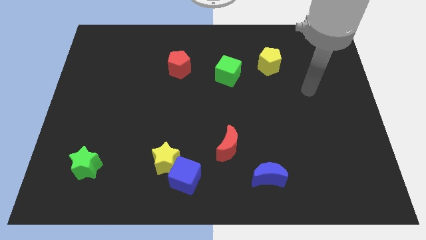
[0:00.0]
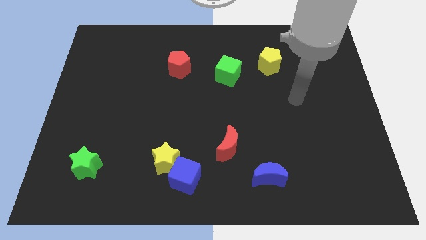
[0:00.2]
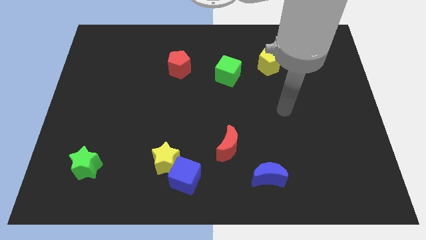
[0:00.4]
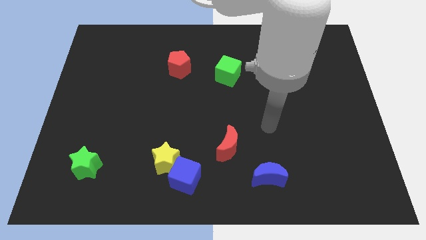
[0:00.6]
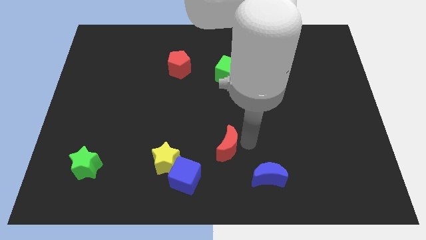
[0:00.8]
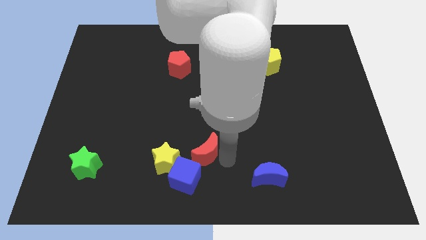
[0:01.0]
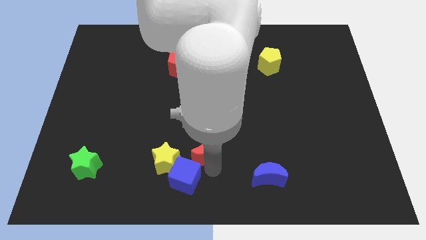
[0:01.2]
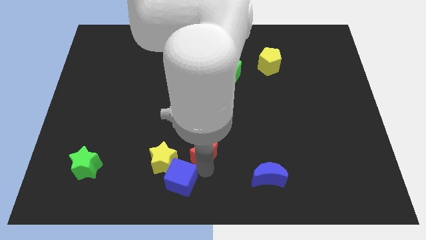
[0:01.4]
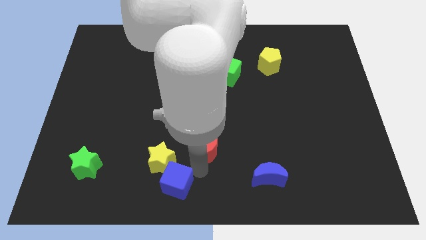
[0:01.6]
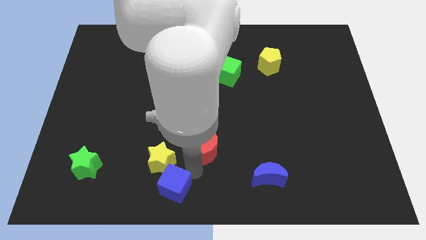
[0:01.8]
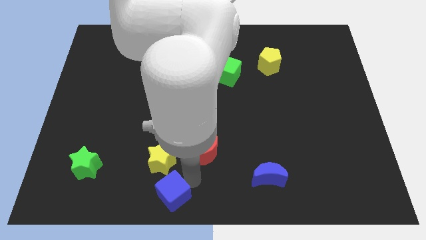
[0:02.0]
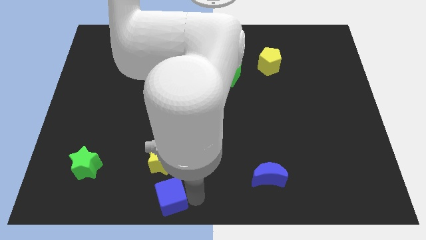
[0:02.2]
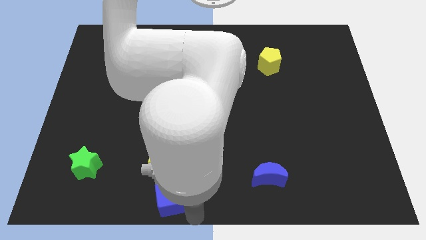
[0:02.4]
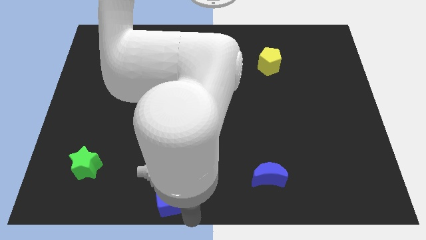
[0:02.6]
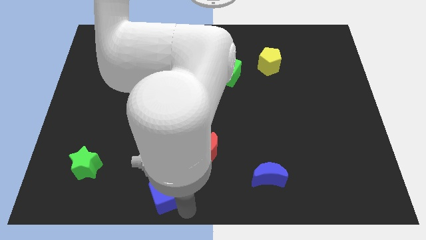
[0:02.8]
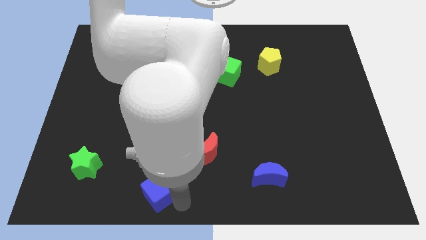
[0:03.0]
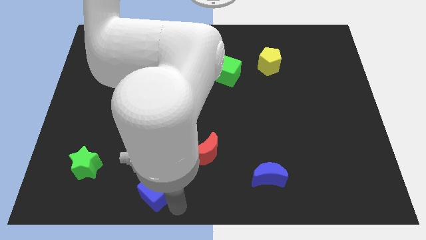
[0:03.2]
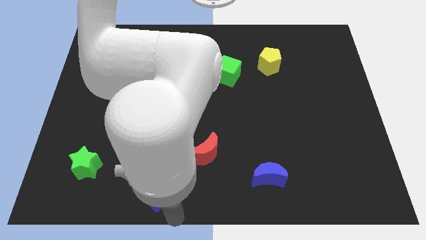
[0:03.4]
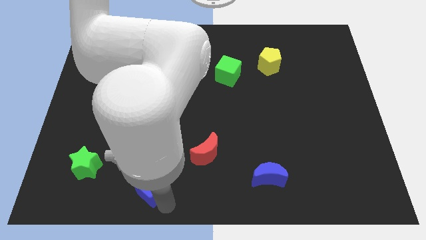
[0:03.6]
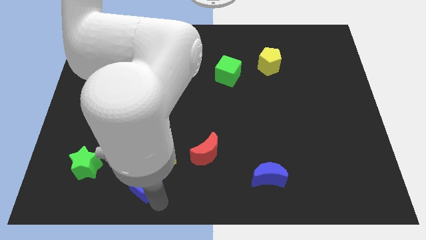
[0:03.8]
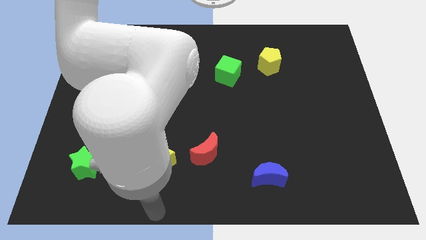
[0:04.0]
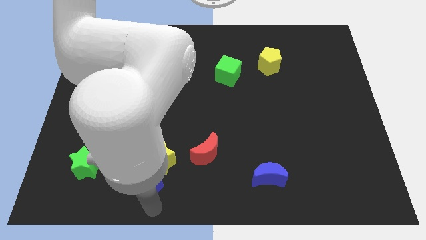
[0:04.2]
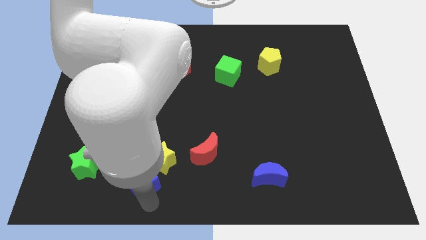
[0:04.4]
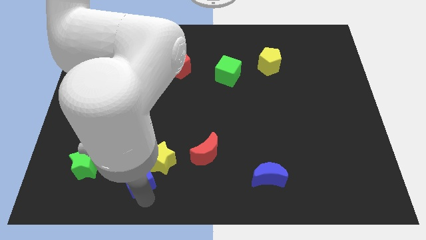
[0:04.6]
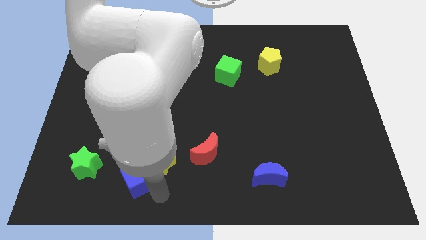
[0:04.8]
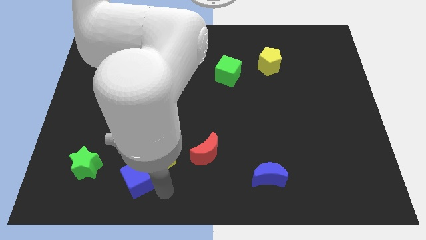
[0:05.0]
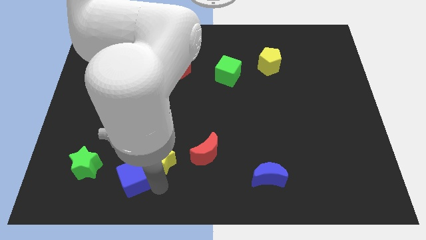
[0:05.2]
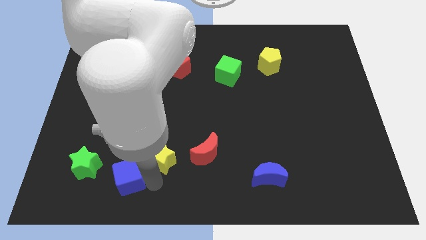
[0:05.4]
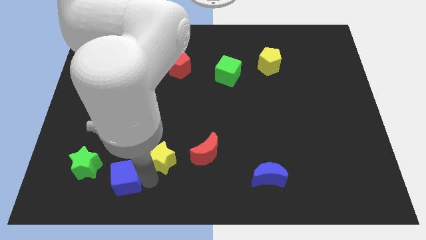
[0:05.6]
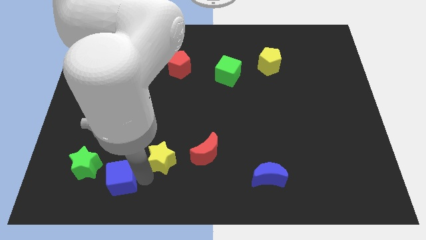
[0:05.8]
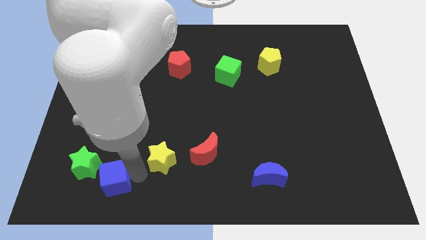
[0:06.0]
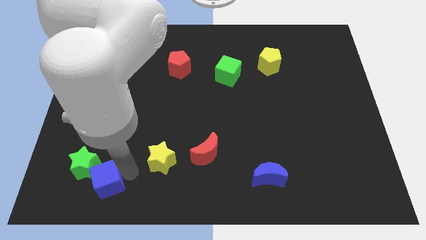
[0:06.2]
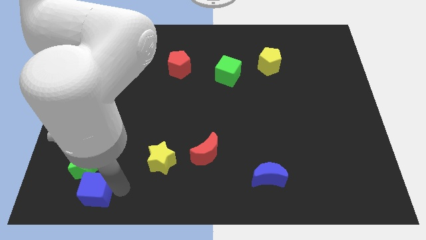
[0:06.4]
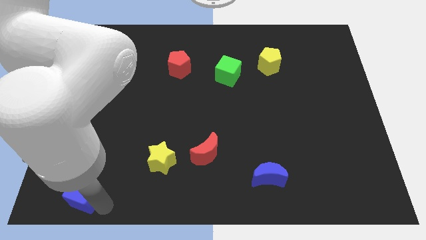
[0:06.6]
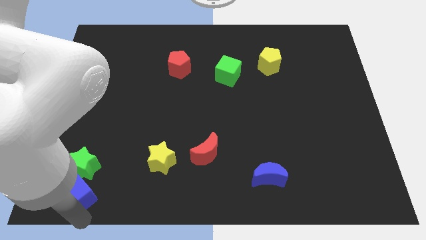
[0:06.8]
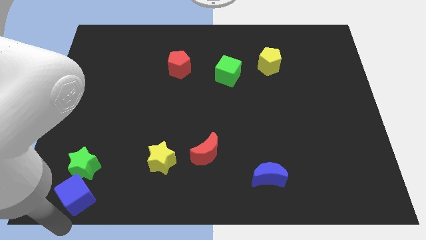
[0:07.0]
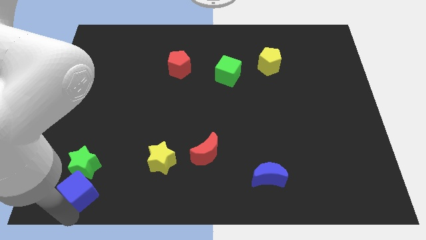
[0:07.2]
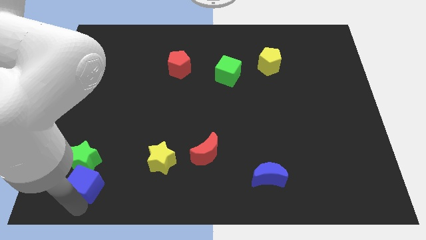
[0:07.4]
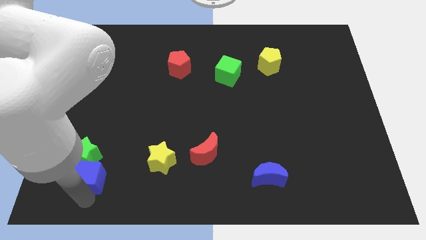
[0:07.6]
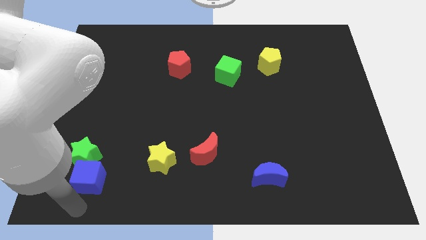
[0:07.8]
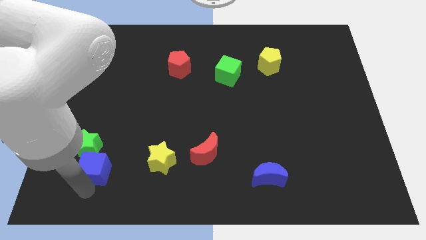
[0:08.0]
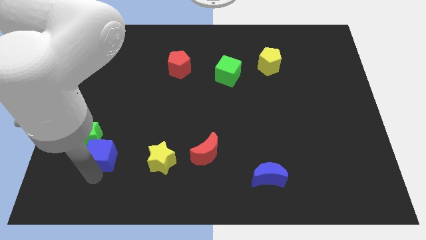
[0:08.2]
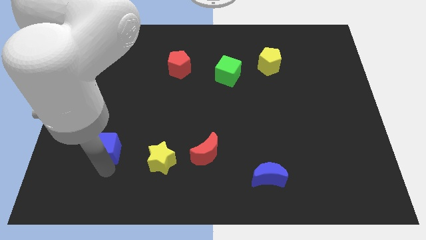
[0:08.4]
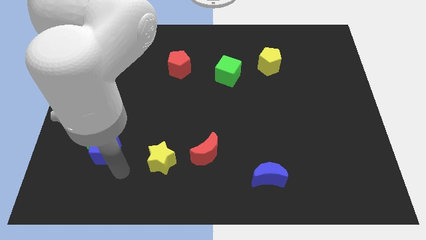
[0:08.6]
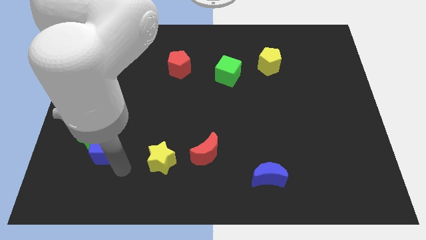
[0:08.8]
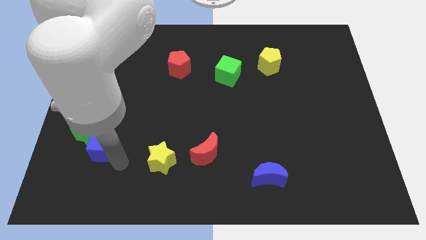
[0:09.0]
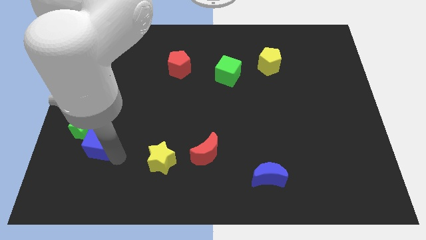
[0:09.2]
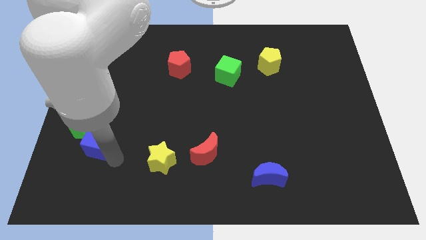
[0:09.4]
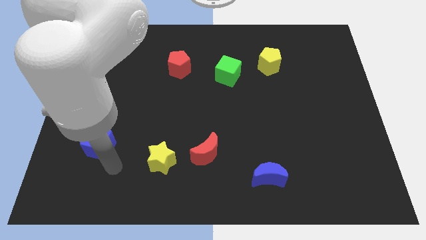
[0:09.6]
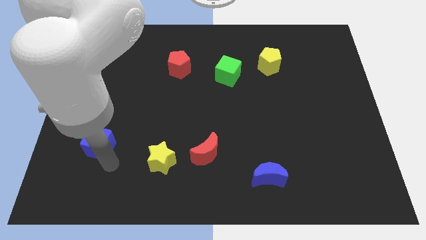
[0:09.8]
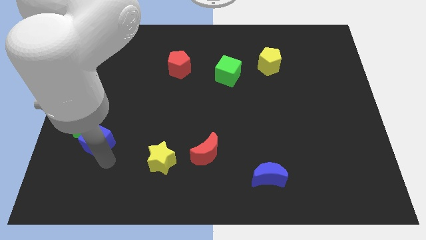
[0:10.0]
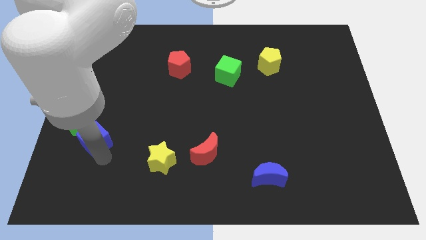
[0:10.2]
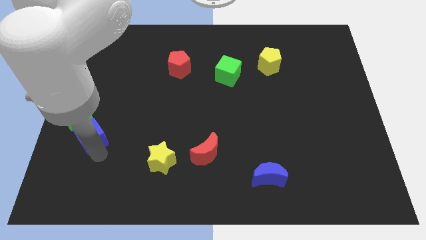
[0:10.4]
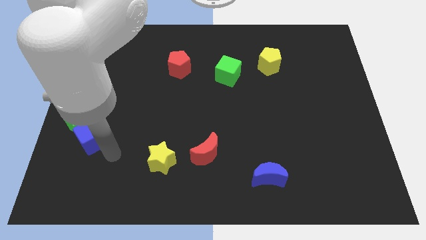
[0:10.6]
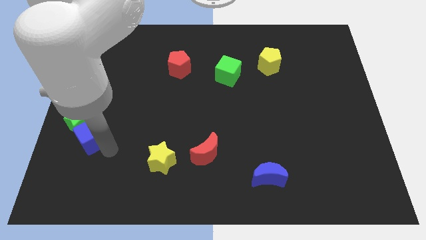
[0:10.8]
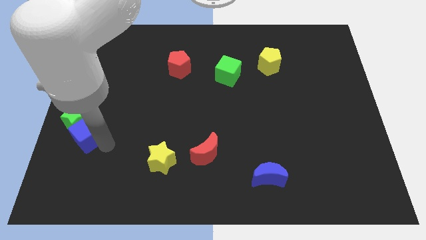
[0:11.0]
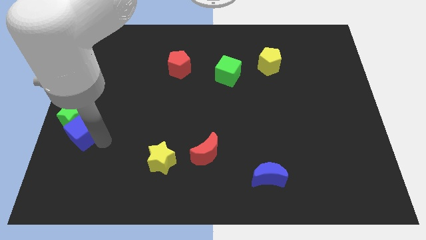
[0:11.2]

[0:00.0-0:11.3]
put the blue cube to the center left

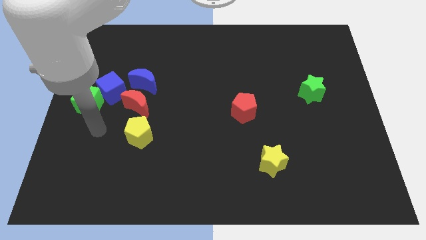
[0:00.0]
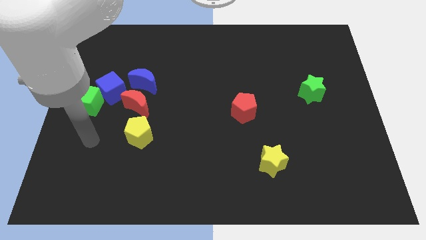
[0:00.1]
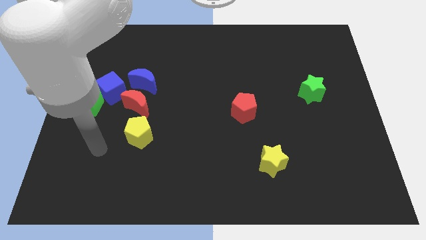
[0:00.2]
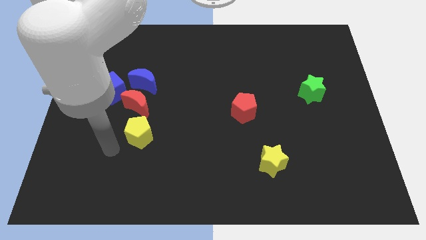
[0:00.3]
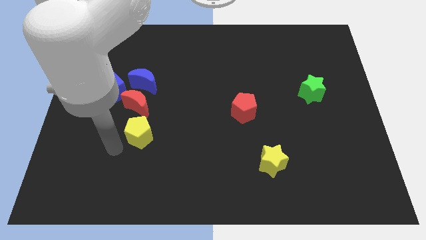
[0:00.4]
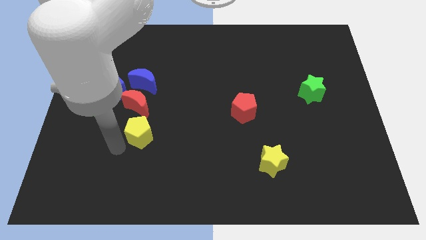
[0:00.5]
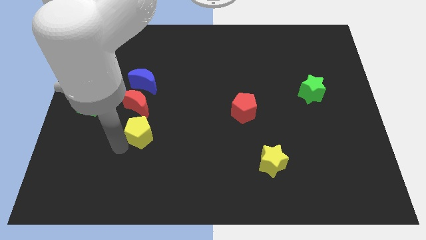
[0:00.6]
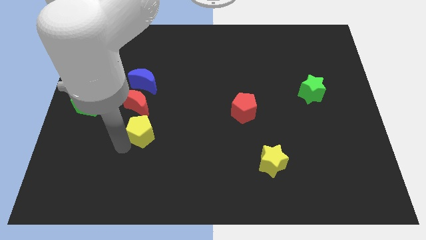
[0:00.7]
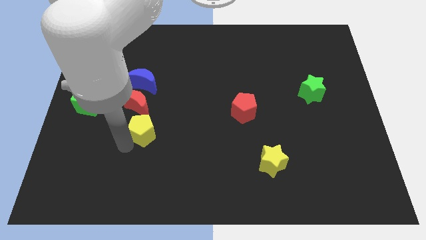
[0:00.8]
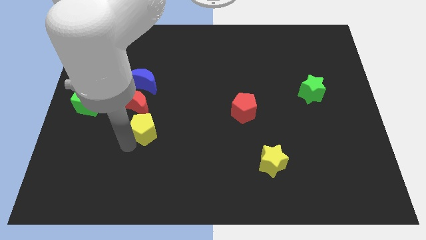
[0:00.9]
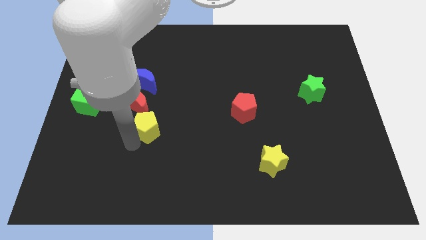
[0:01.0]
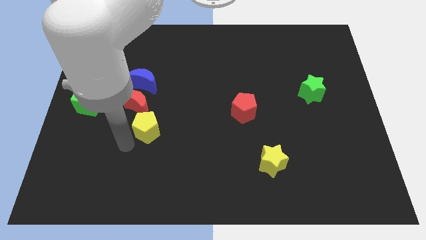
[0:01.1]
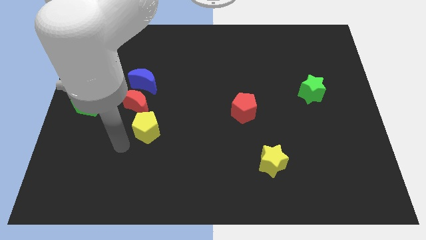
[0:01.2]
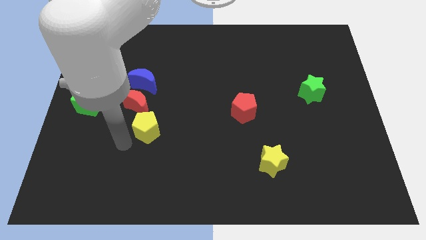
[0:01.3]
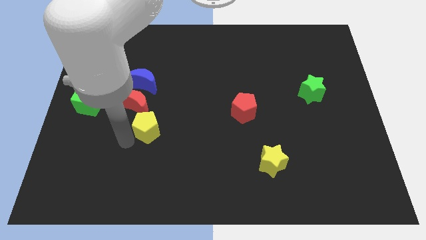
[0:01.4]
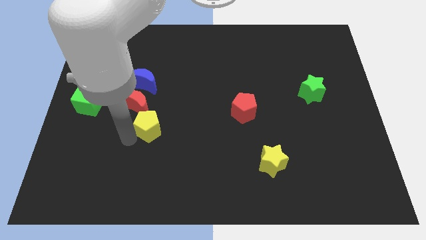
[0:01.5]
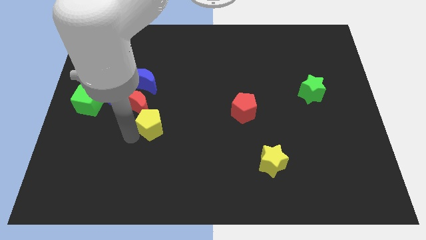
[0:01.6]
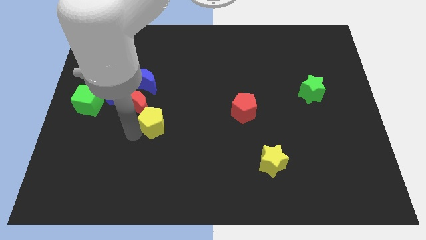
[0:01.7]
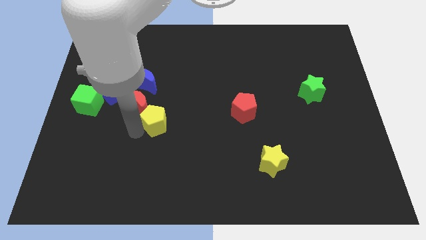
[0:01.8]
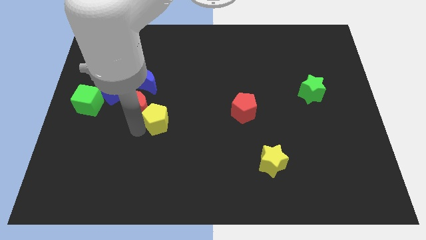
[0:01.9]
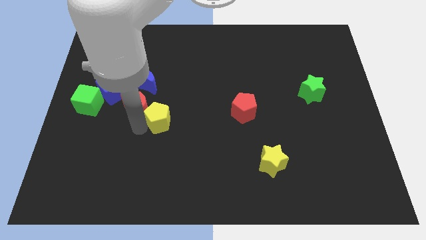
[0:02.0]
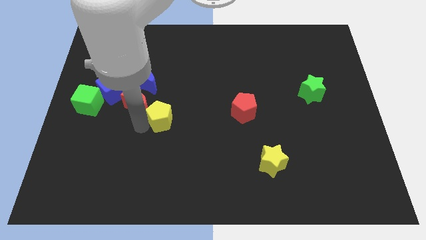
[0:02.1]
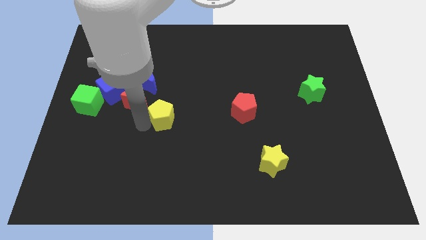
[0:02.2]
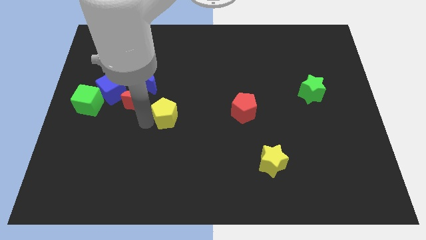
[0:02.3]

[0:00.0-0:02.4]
put the yellow pentagon to the middle
